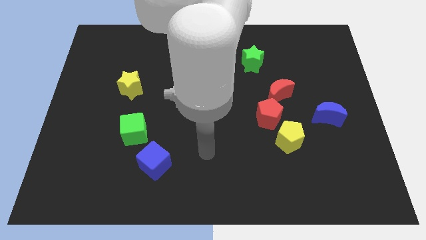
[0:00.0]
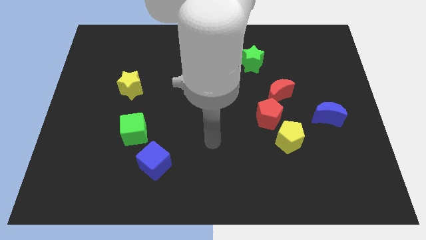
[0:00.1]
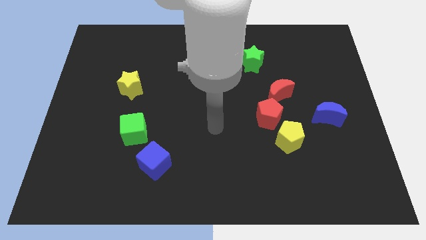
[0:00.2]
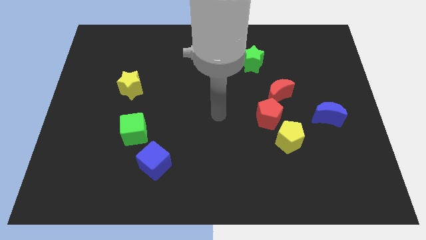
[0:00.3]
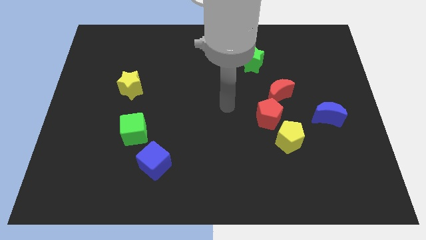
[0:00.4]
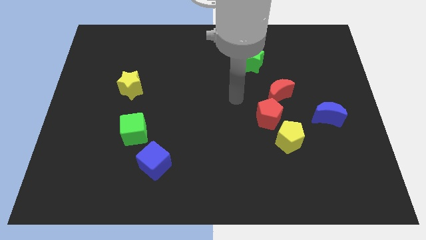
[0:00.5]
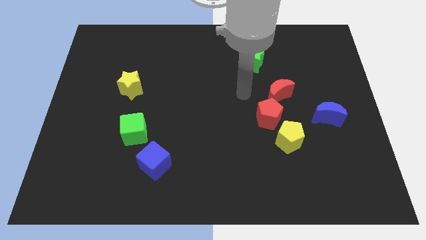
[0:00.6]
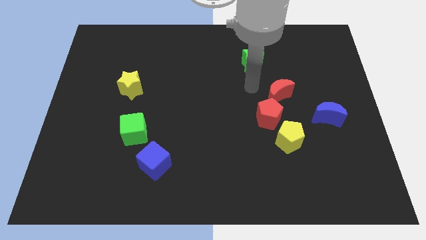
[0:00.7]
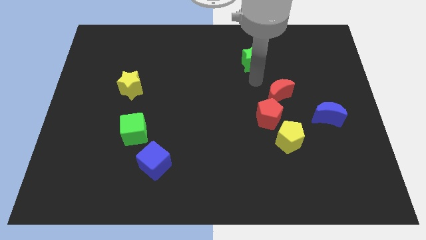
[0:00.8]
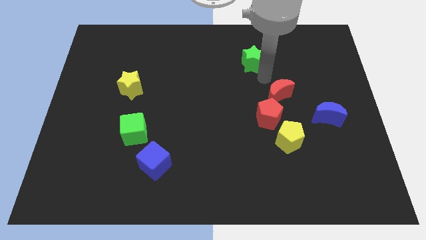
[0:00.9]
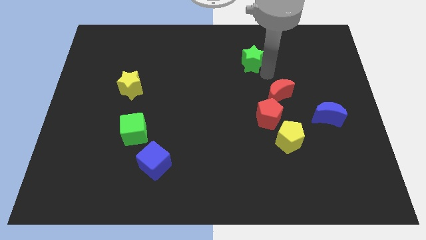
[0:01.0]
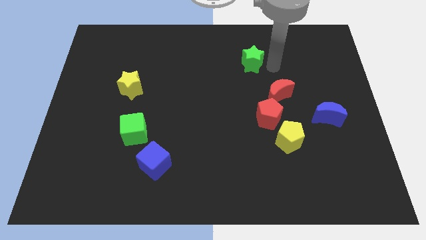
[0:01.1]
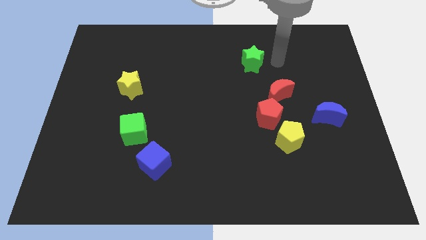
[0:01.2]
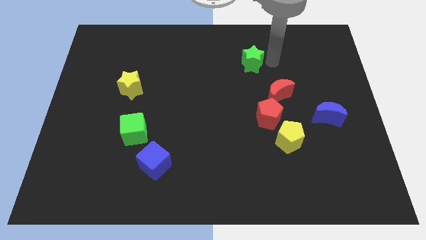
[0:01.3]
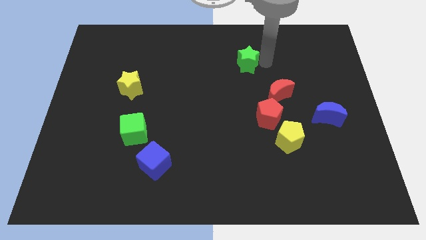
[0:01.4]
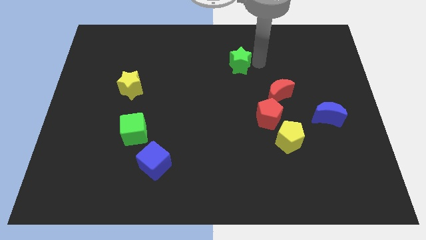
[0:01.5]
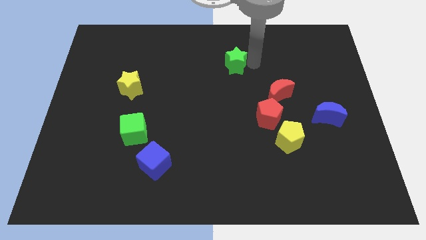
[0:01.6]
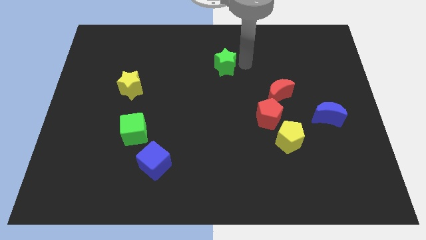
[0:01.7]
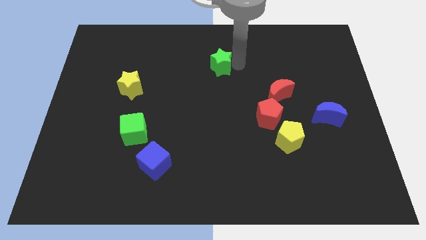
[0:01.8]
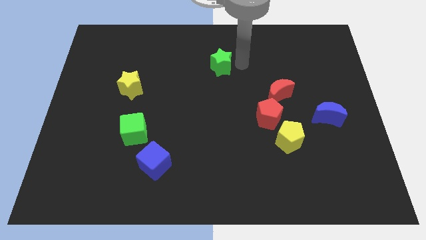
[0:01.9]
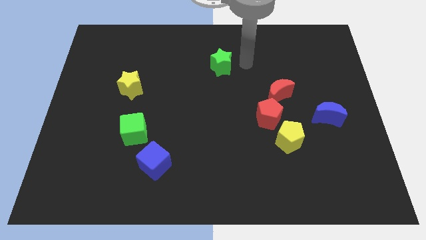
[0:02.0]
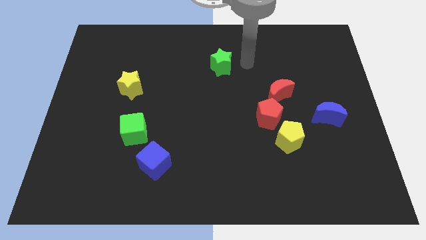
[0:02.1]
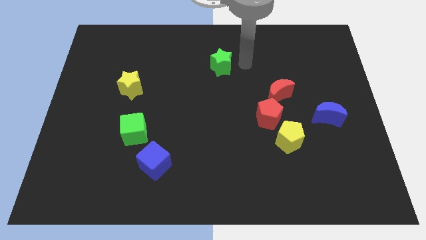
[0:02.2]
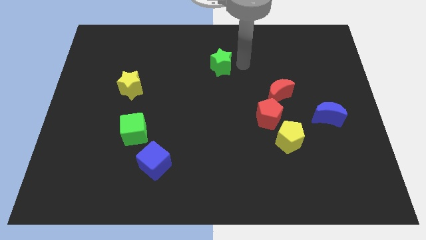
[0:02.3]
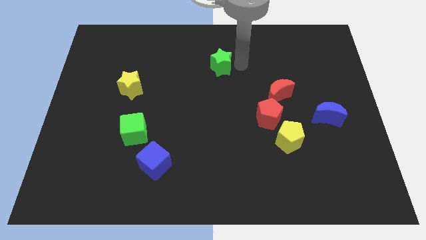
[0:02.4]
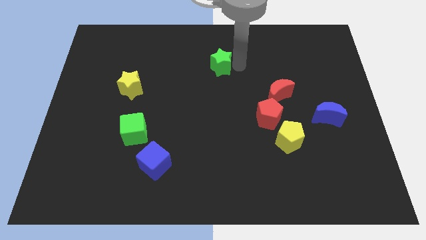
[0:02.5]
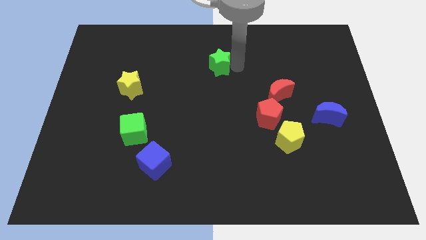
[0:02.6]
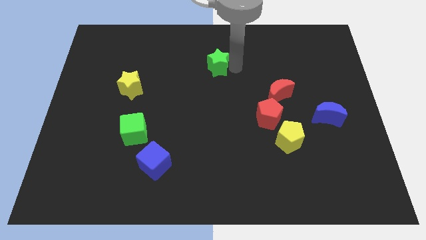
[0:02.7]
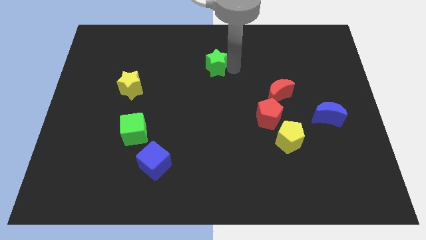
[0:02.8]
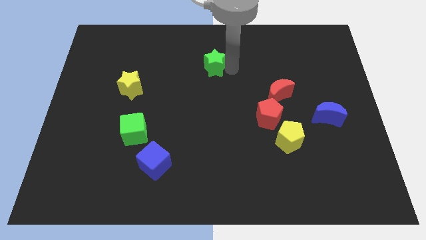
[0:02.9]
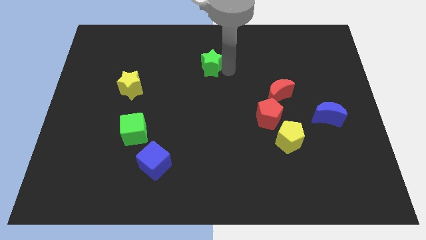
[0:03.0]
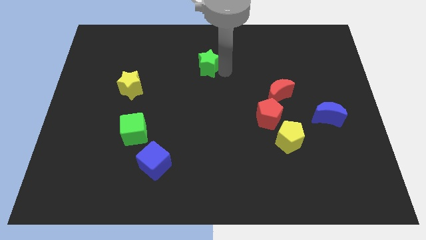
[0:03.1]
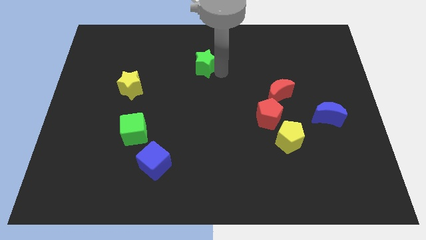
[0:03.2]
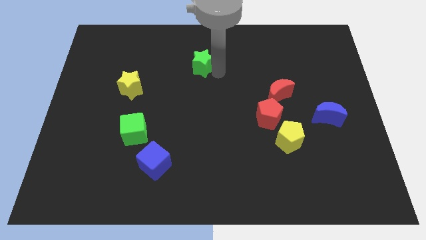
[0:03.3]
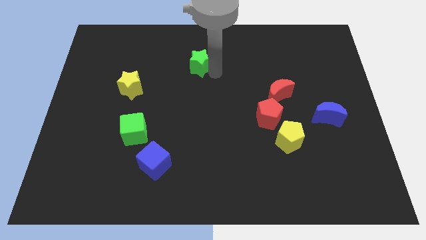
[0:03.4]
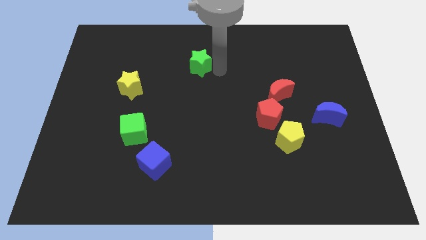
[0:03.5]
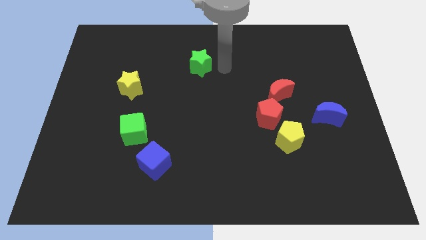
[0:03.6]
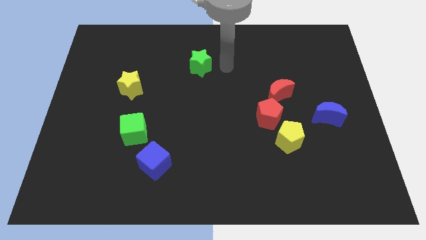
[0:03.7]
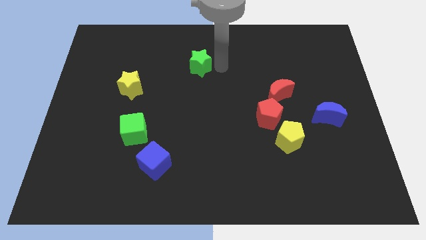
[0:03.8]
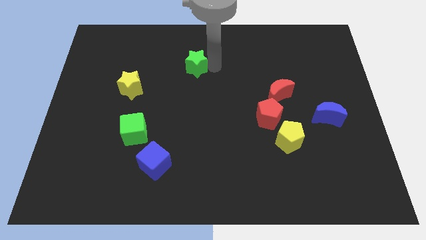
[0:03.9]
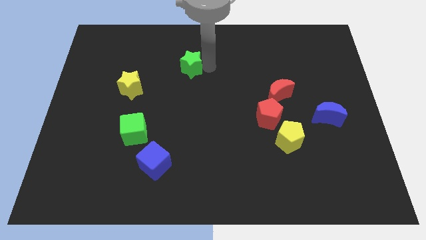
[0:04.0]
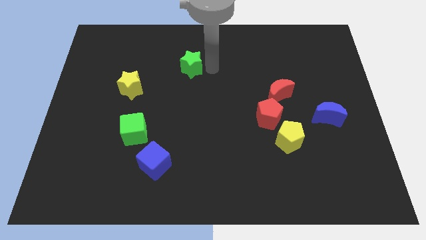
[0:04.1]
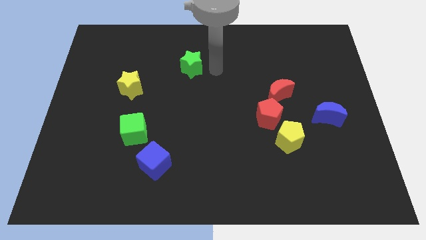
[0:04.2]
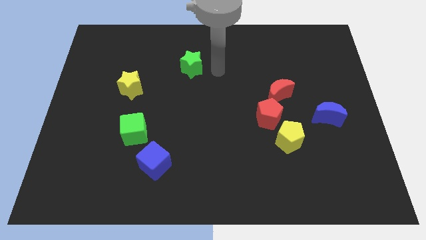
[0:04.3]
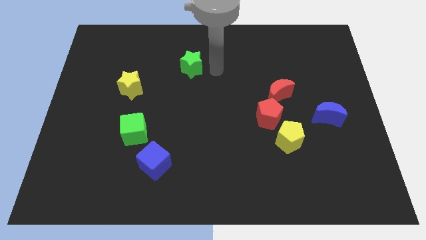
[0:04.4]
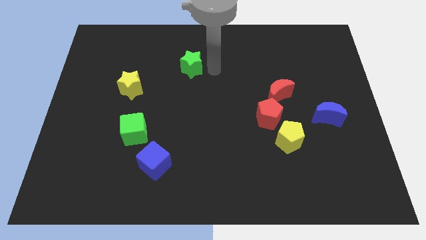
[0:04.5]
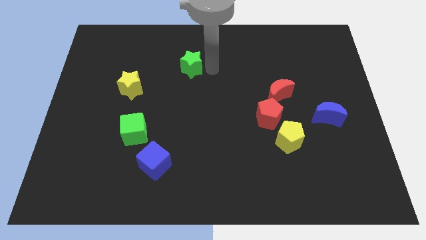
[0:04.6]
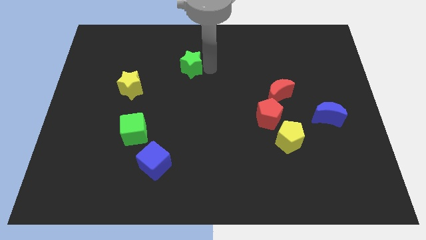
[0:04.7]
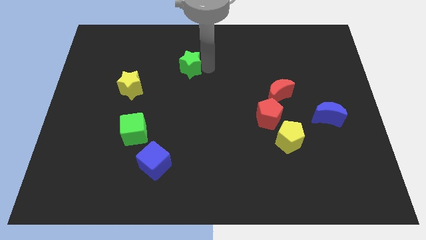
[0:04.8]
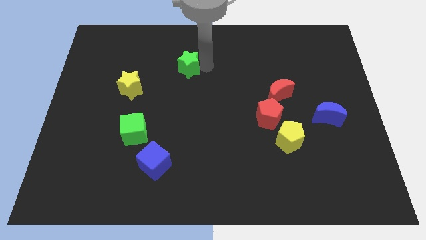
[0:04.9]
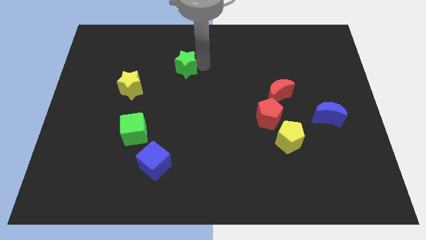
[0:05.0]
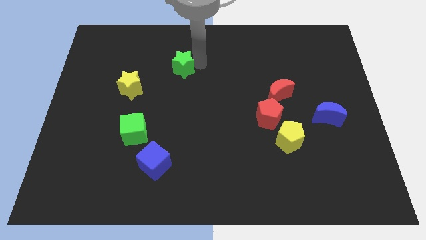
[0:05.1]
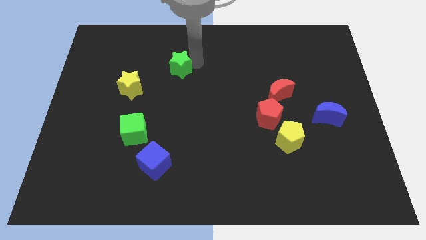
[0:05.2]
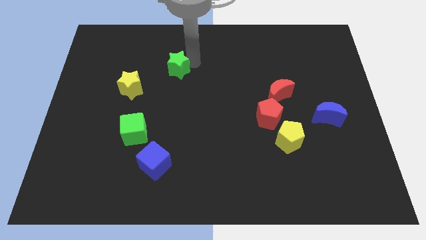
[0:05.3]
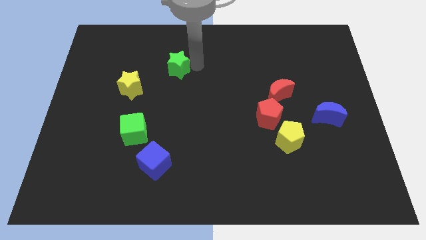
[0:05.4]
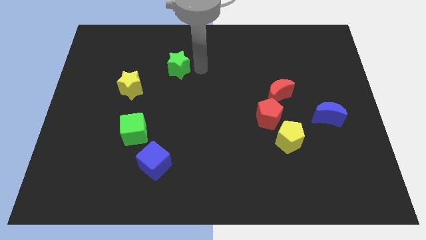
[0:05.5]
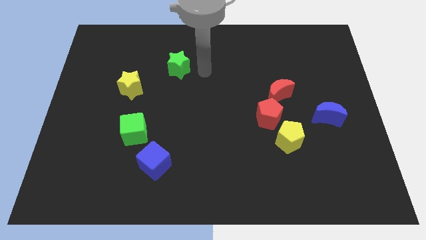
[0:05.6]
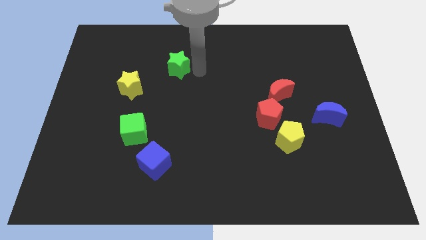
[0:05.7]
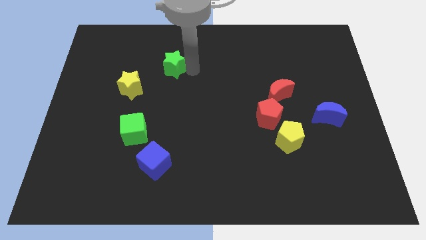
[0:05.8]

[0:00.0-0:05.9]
slide the green star left

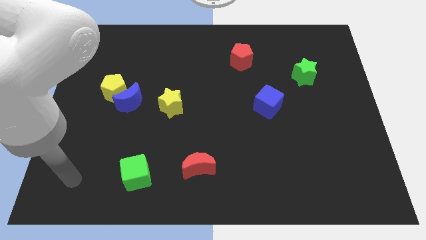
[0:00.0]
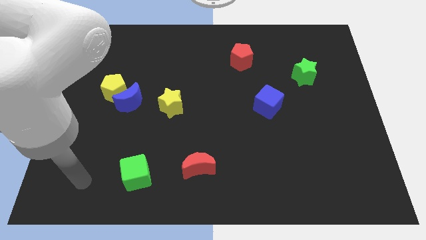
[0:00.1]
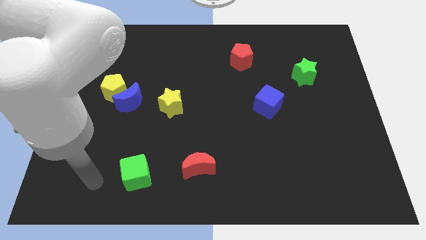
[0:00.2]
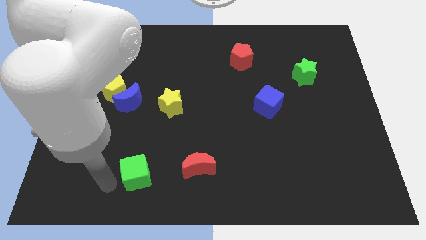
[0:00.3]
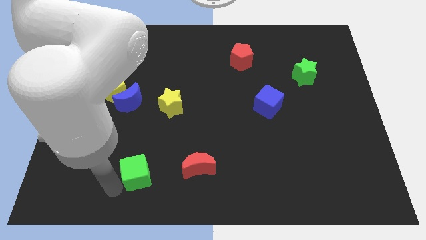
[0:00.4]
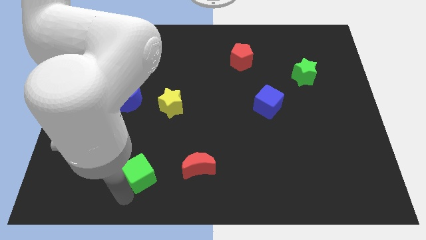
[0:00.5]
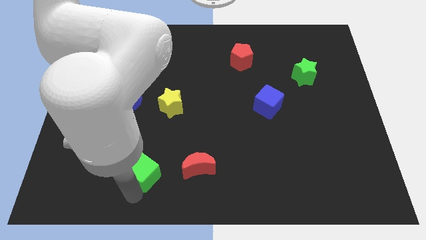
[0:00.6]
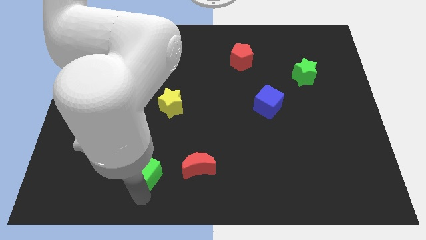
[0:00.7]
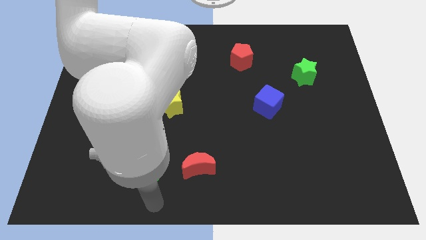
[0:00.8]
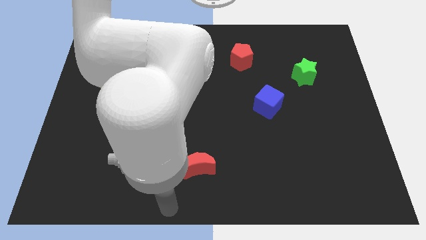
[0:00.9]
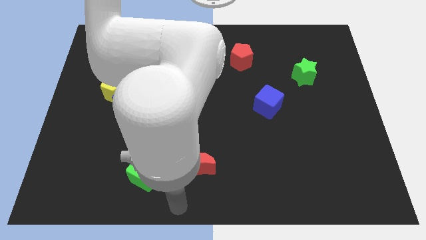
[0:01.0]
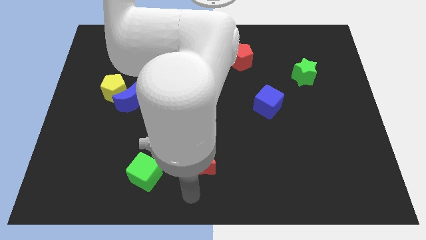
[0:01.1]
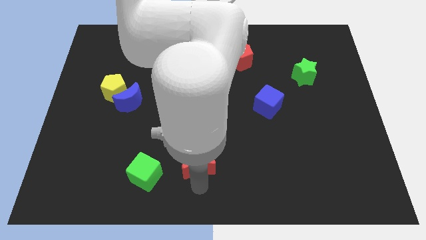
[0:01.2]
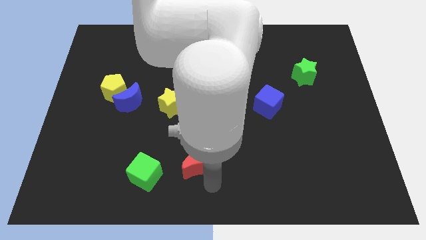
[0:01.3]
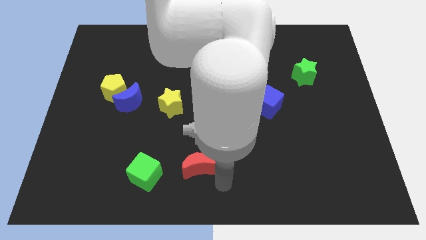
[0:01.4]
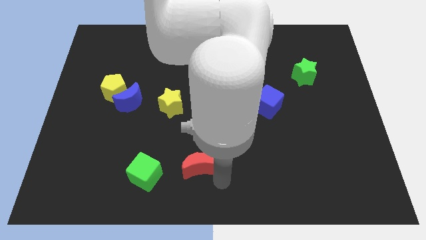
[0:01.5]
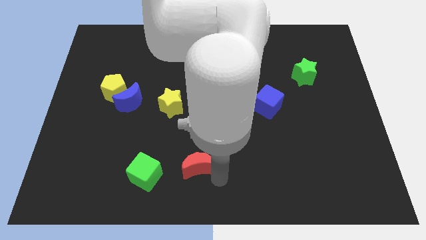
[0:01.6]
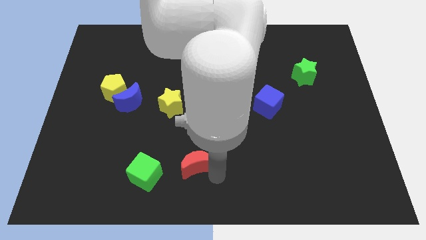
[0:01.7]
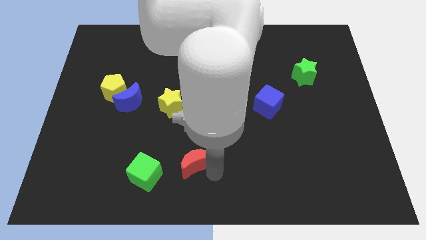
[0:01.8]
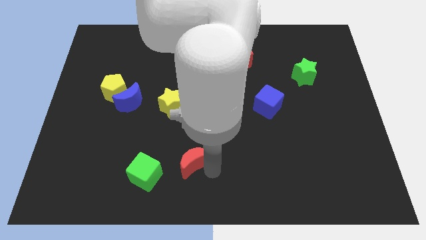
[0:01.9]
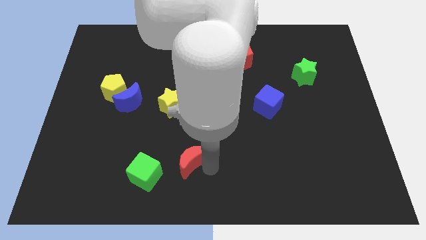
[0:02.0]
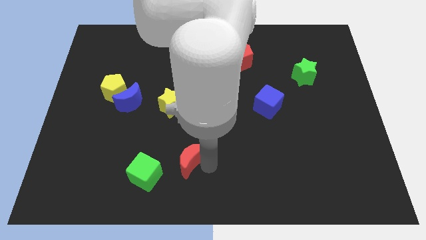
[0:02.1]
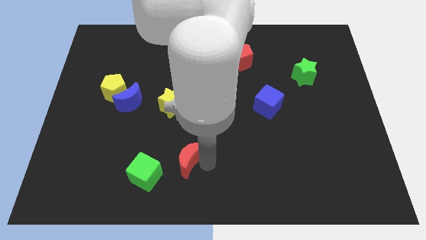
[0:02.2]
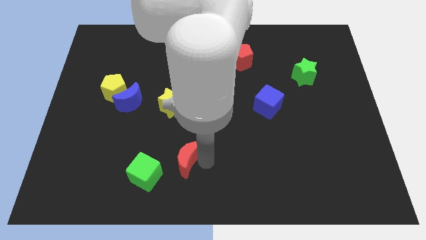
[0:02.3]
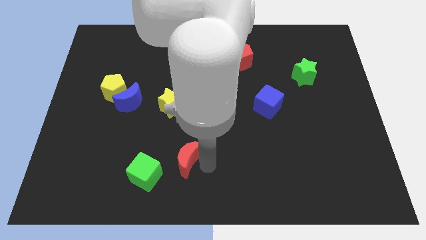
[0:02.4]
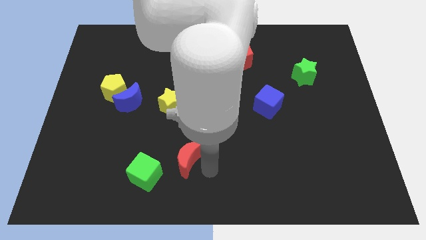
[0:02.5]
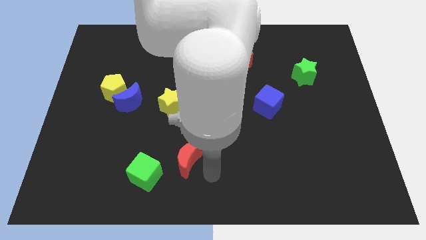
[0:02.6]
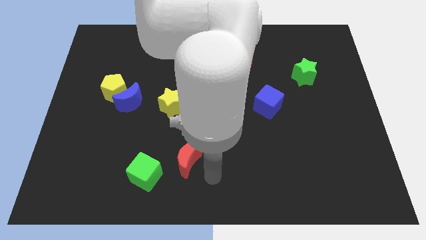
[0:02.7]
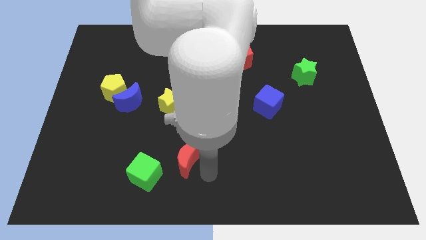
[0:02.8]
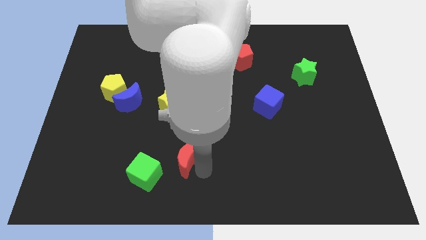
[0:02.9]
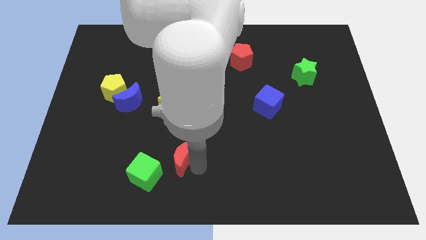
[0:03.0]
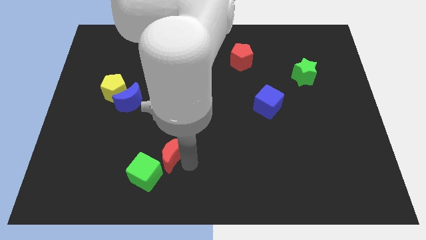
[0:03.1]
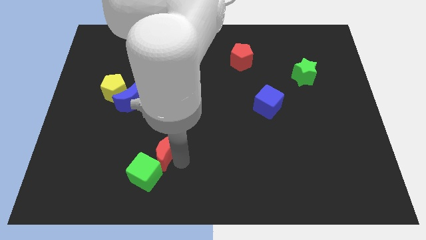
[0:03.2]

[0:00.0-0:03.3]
move the red moon diagonally up and to the left slightly
